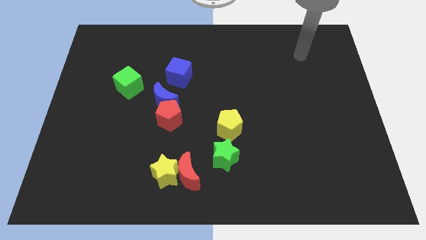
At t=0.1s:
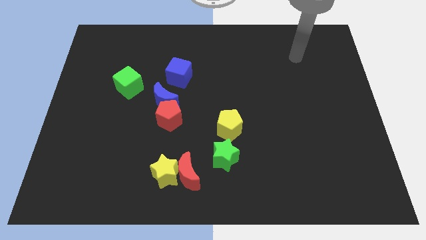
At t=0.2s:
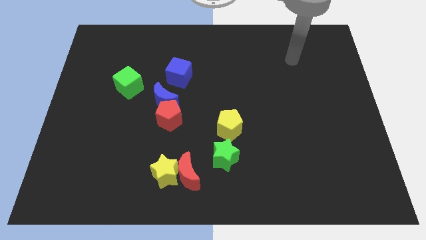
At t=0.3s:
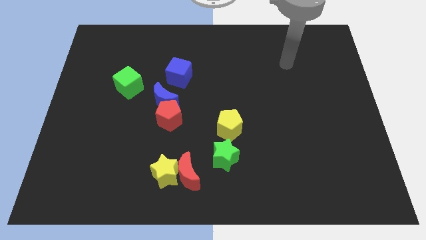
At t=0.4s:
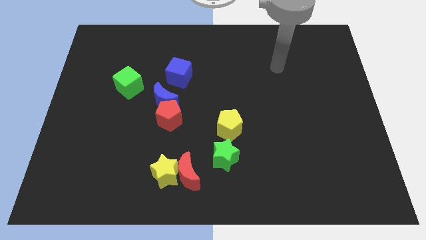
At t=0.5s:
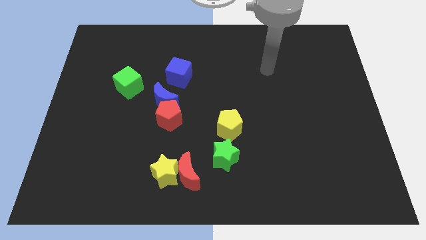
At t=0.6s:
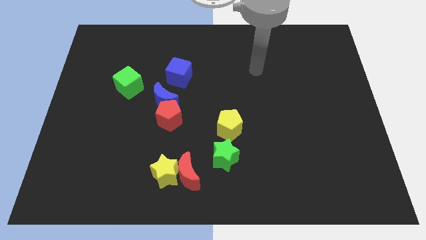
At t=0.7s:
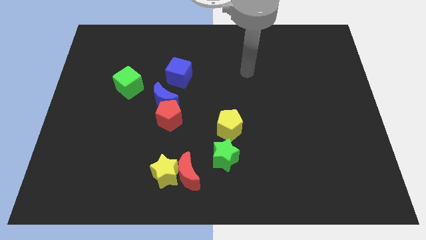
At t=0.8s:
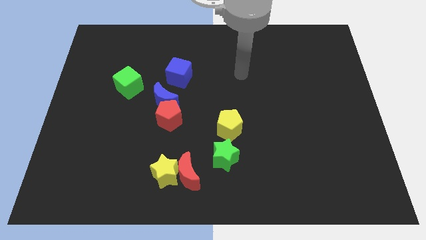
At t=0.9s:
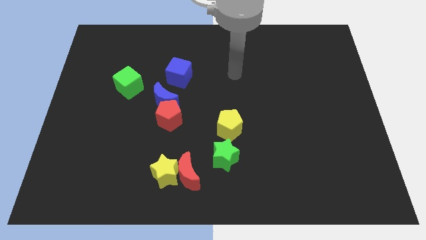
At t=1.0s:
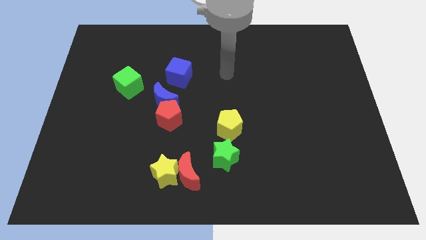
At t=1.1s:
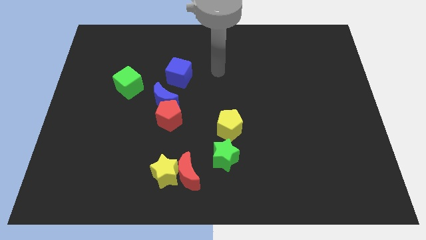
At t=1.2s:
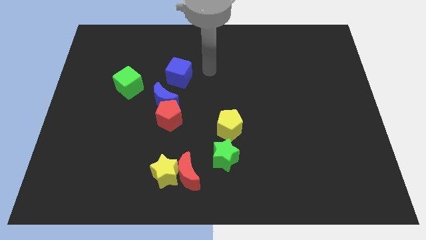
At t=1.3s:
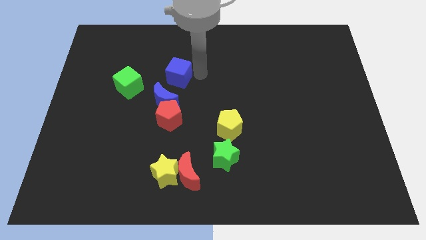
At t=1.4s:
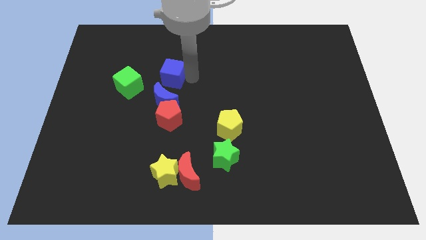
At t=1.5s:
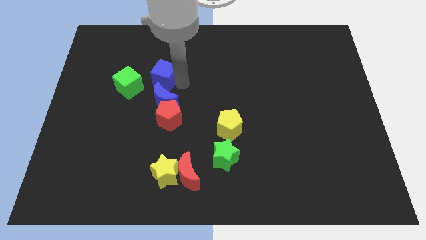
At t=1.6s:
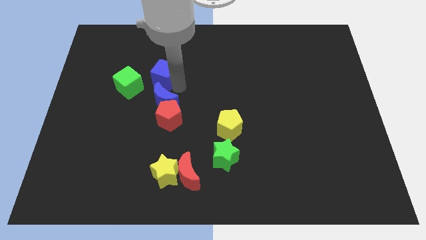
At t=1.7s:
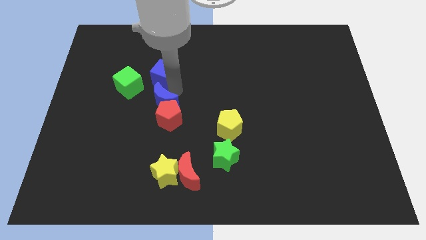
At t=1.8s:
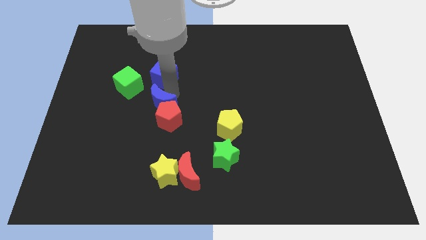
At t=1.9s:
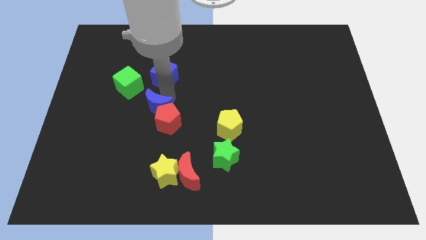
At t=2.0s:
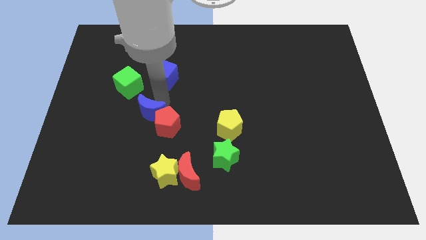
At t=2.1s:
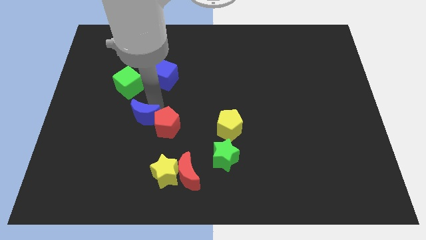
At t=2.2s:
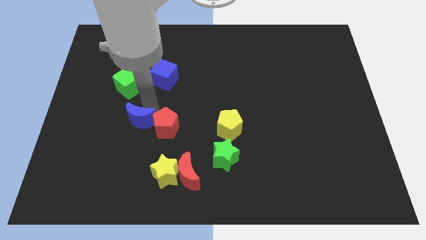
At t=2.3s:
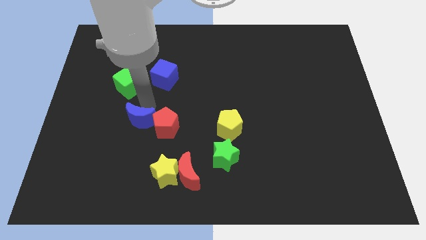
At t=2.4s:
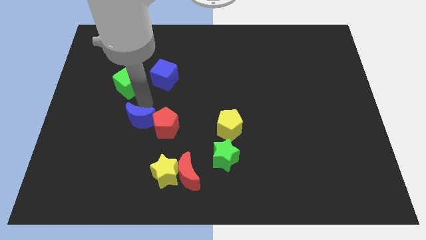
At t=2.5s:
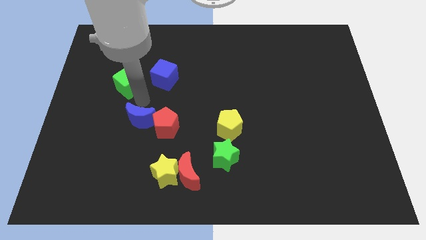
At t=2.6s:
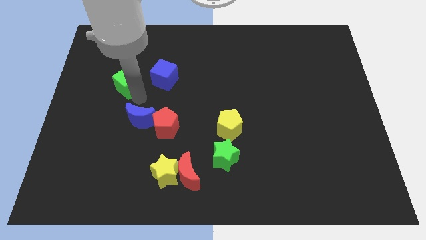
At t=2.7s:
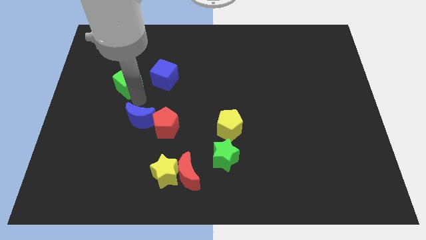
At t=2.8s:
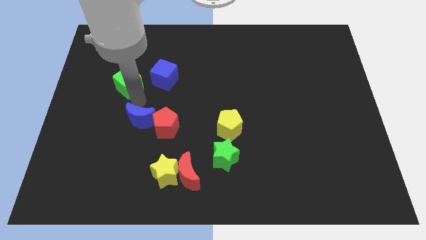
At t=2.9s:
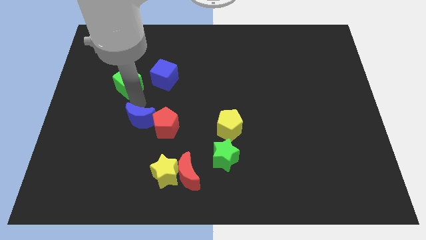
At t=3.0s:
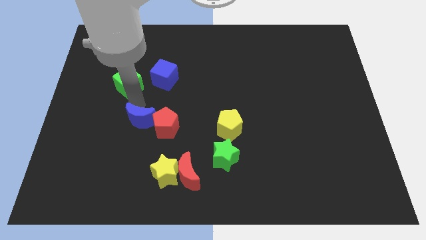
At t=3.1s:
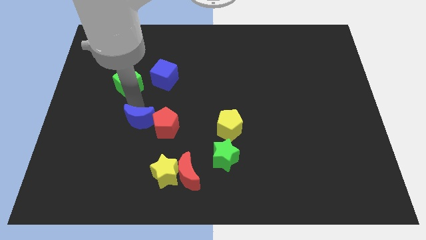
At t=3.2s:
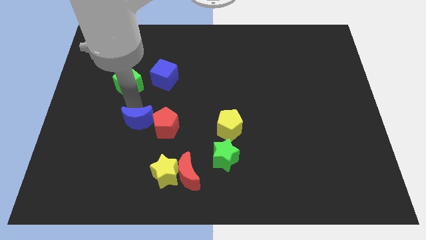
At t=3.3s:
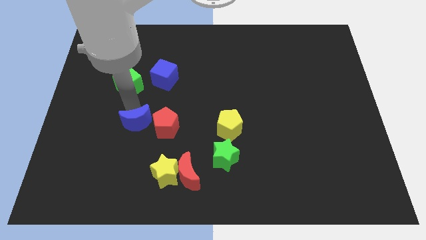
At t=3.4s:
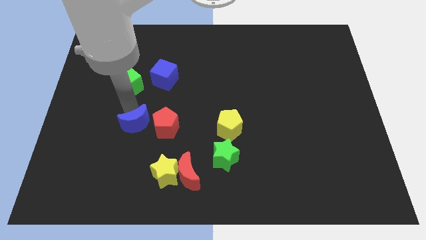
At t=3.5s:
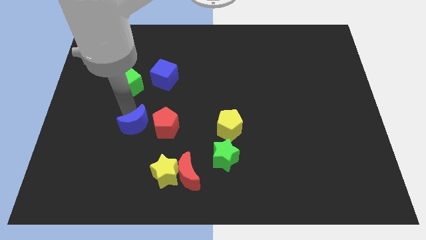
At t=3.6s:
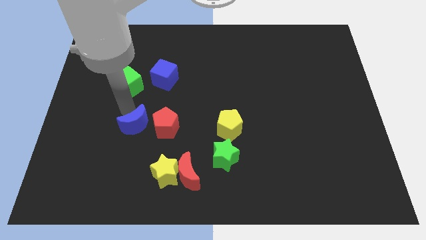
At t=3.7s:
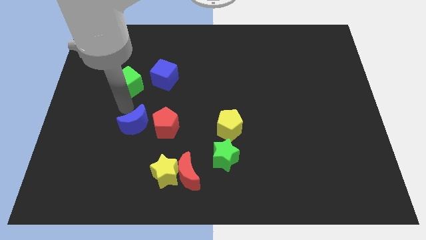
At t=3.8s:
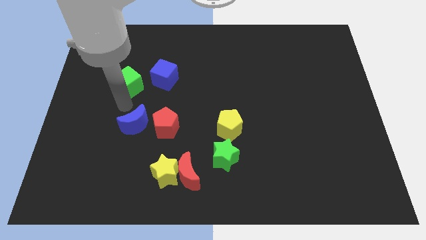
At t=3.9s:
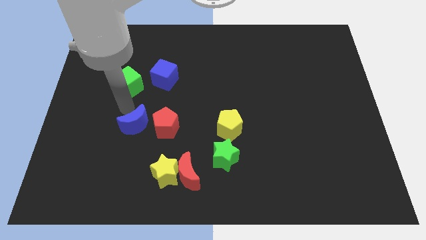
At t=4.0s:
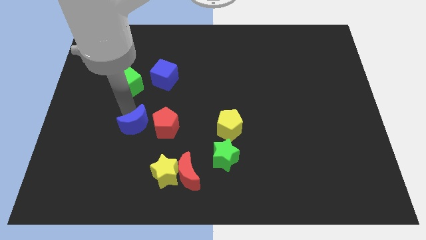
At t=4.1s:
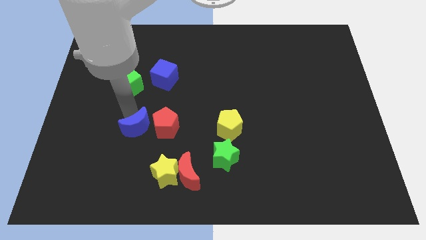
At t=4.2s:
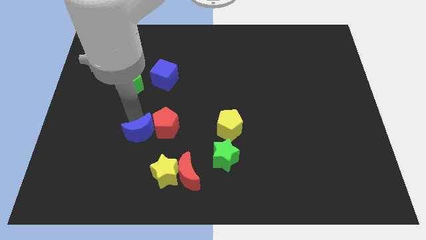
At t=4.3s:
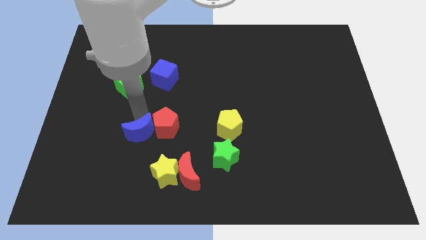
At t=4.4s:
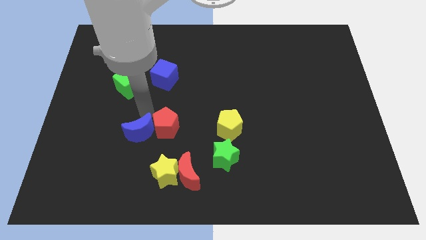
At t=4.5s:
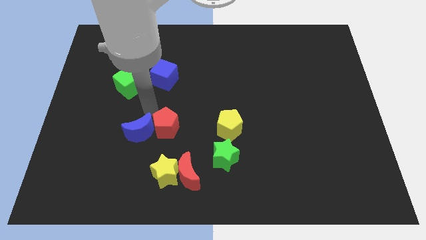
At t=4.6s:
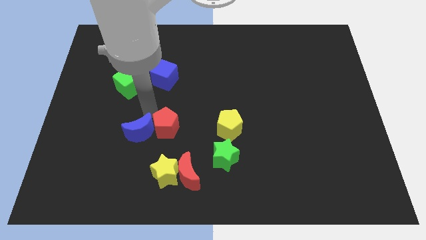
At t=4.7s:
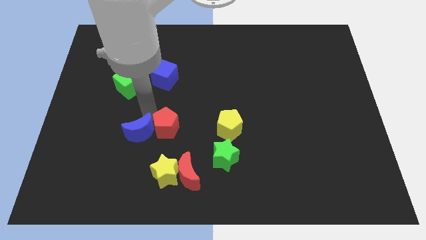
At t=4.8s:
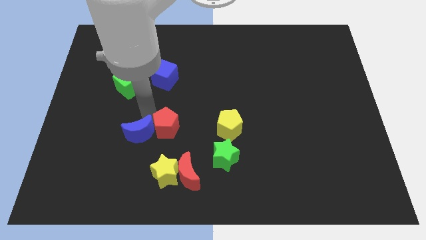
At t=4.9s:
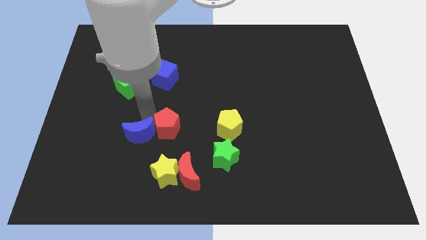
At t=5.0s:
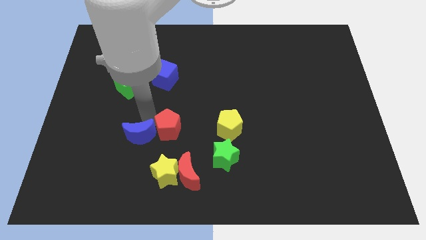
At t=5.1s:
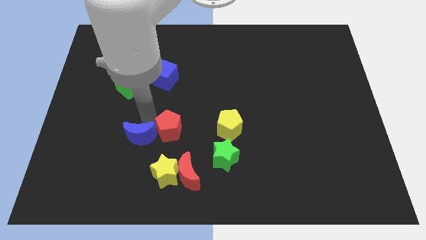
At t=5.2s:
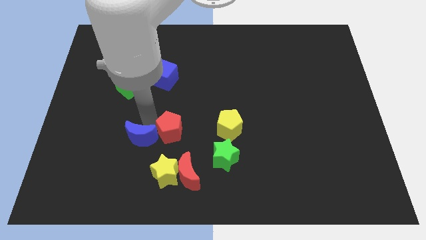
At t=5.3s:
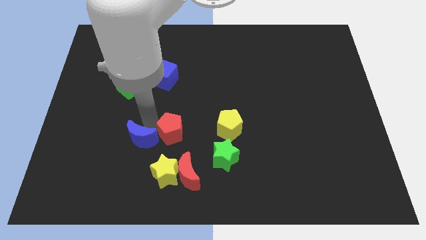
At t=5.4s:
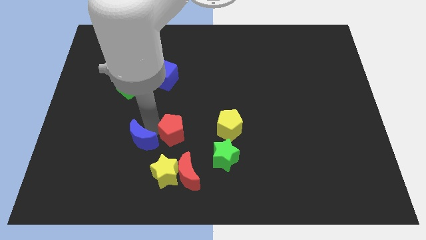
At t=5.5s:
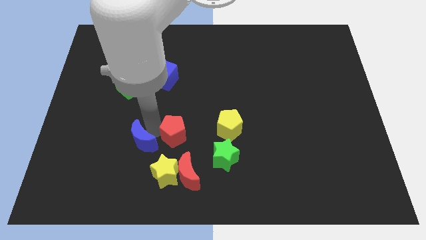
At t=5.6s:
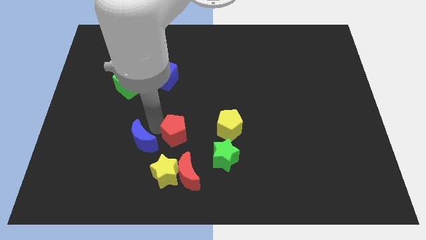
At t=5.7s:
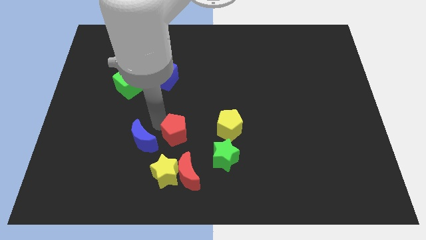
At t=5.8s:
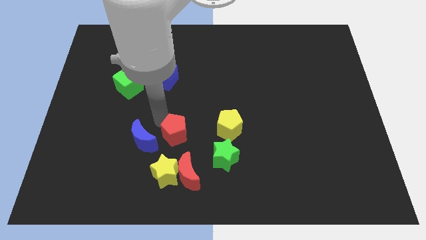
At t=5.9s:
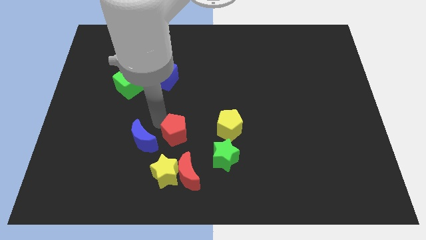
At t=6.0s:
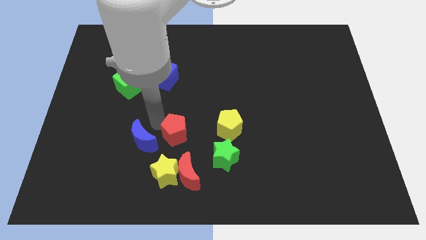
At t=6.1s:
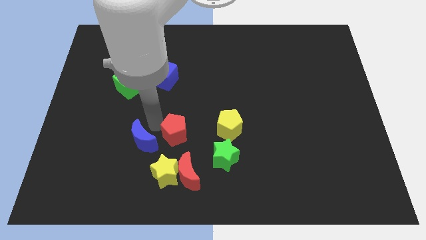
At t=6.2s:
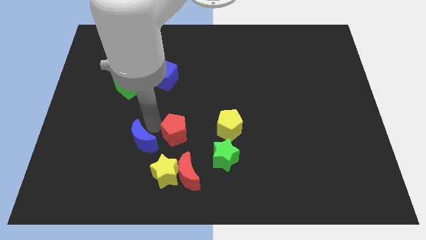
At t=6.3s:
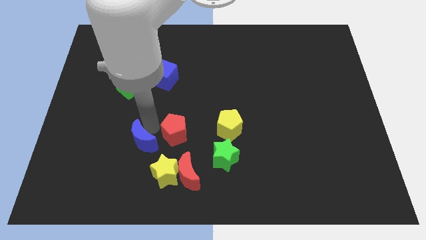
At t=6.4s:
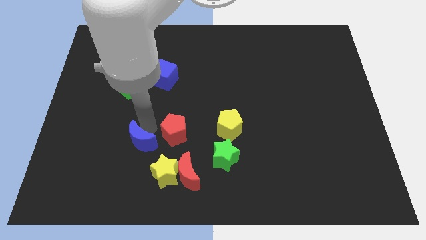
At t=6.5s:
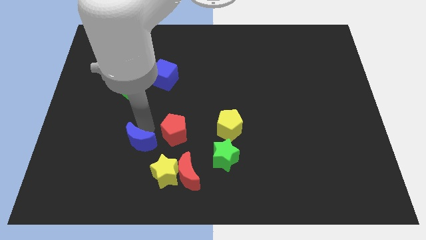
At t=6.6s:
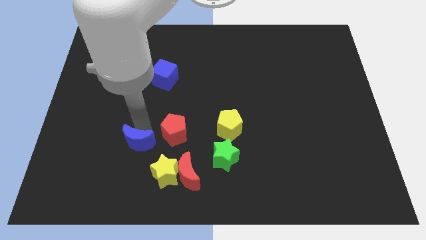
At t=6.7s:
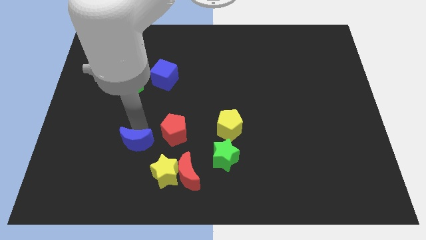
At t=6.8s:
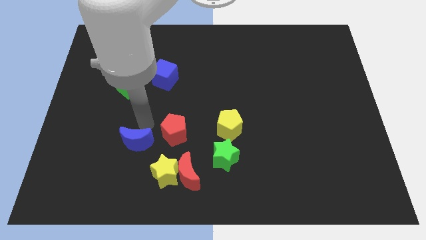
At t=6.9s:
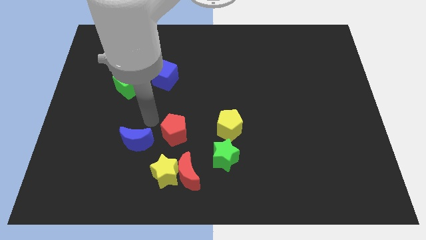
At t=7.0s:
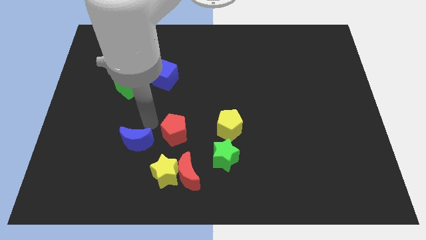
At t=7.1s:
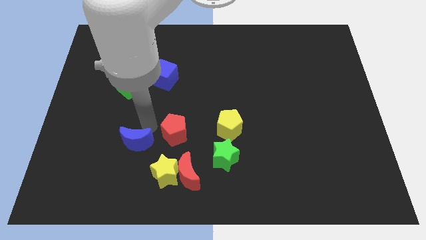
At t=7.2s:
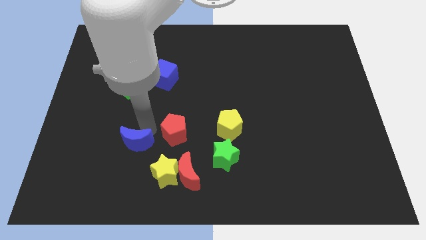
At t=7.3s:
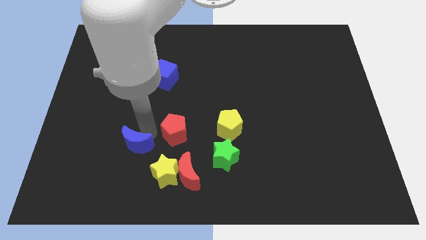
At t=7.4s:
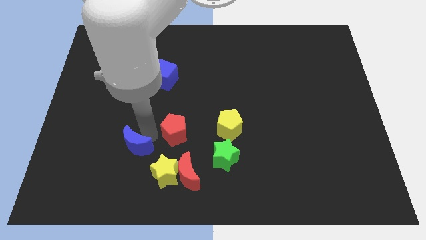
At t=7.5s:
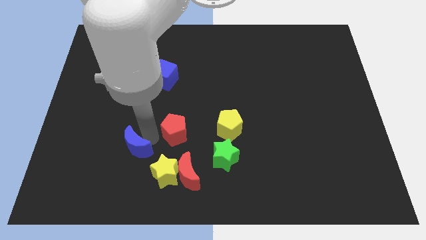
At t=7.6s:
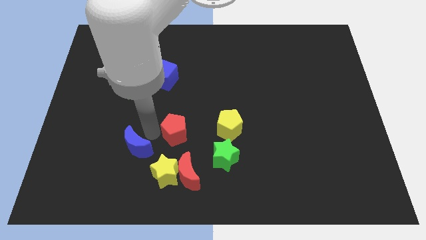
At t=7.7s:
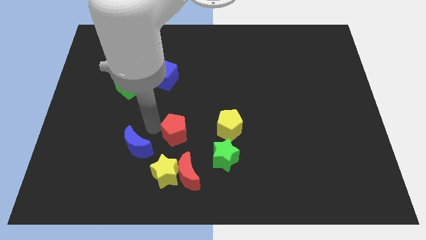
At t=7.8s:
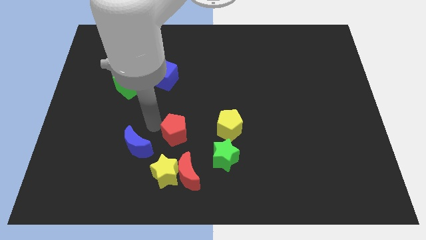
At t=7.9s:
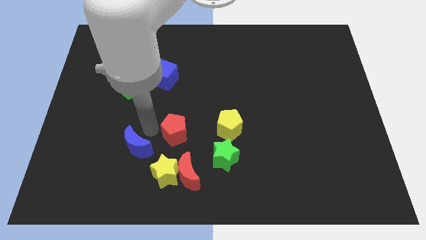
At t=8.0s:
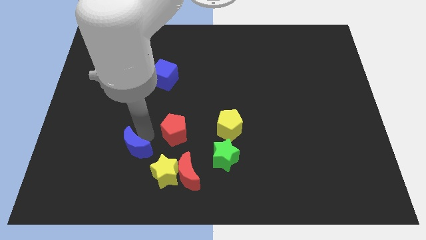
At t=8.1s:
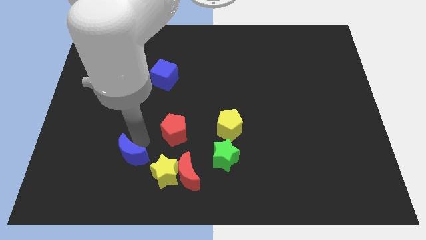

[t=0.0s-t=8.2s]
move the blue moon to the left side of the yellow star
